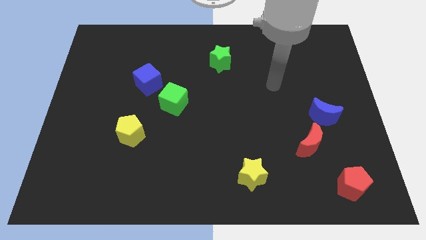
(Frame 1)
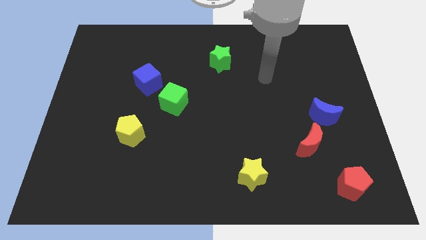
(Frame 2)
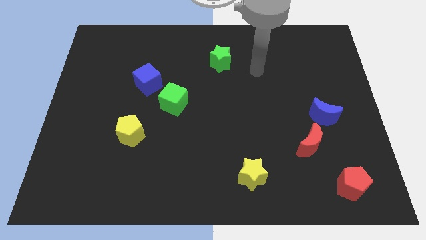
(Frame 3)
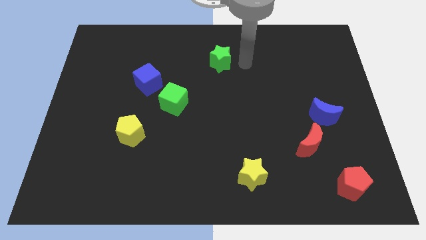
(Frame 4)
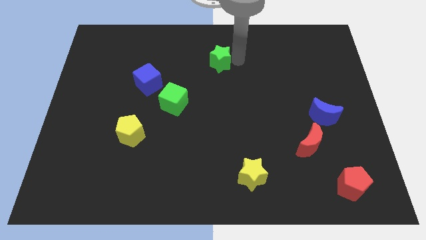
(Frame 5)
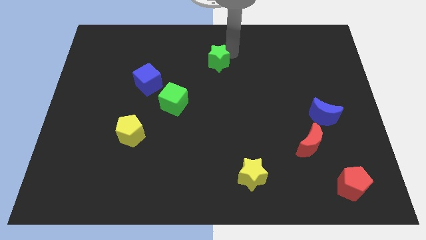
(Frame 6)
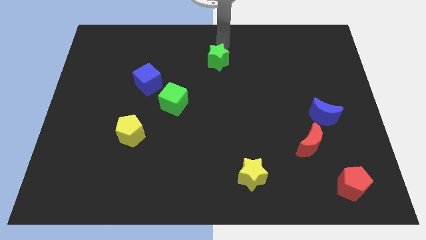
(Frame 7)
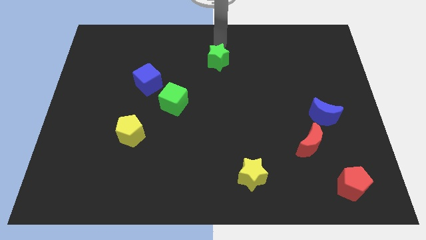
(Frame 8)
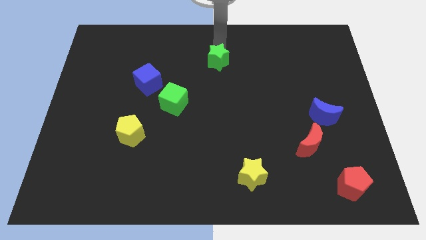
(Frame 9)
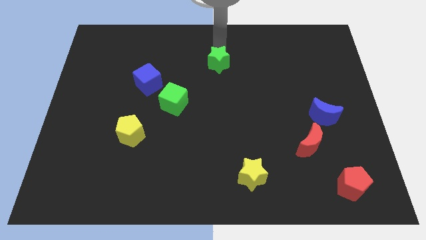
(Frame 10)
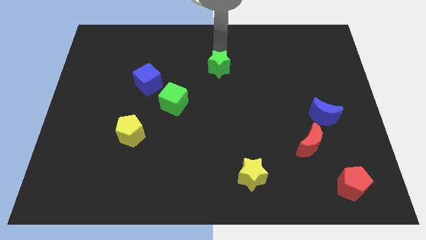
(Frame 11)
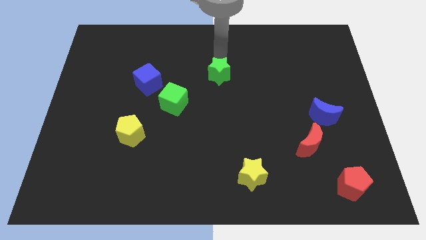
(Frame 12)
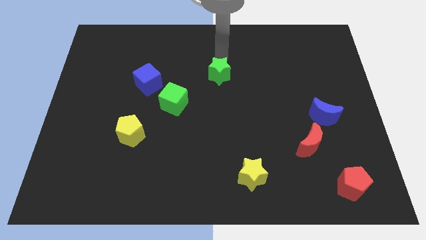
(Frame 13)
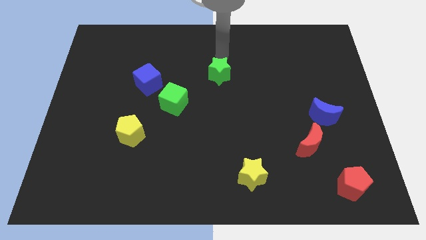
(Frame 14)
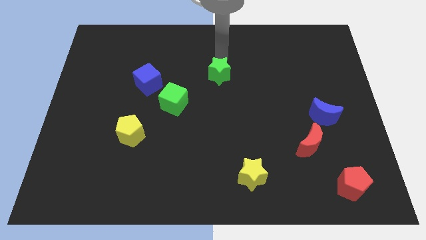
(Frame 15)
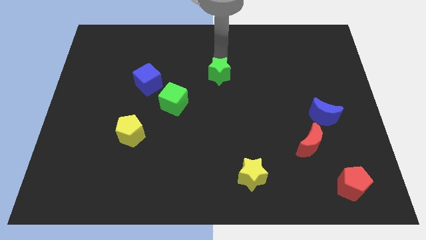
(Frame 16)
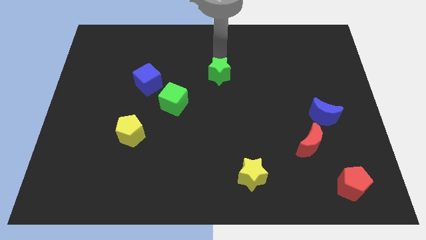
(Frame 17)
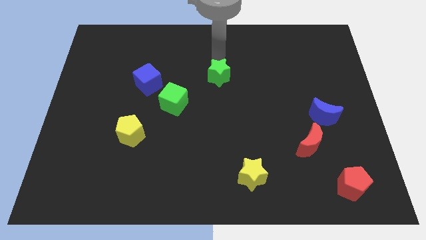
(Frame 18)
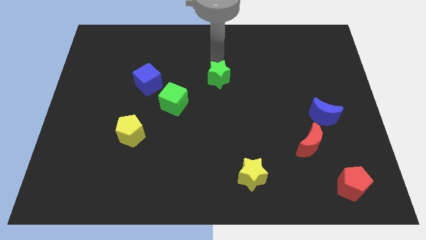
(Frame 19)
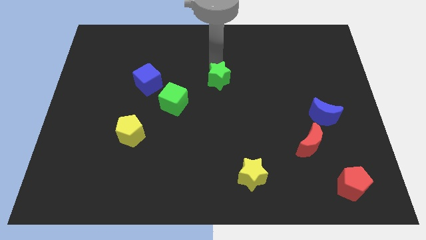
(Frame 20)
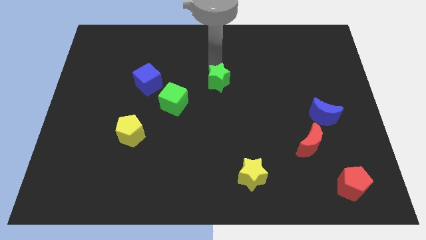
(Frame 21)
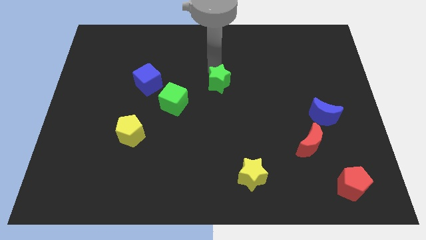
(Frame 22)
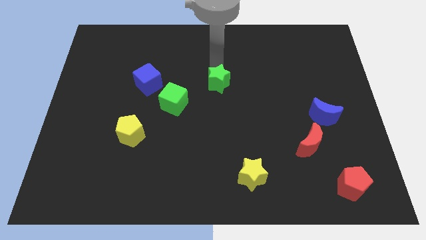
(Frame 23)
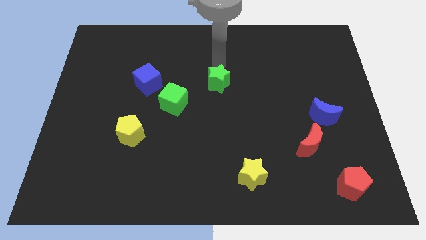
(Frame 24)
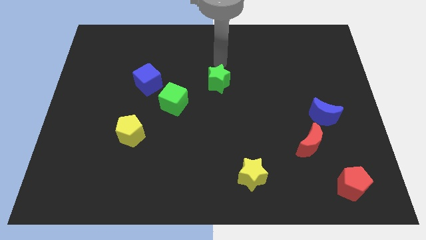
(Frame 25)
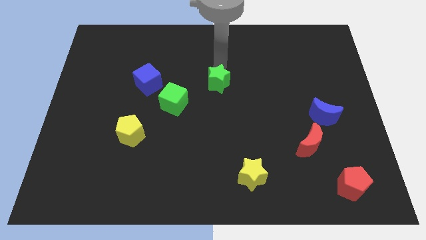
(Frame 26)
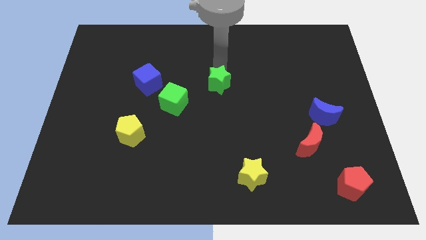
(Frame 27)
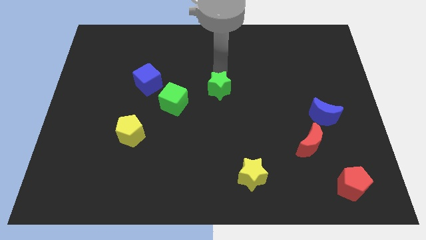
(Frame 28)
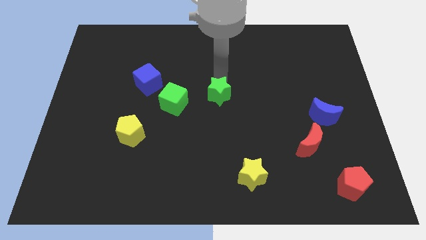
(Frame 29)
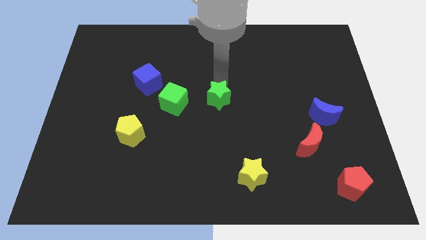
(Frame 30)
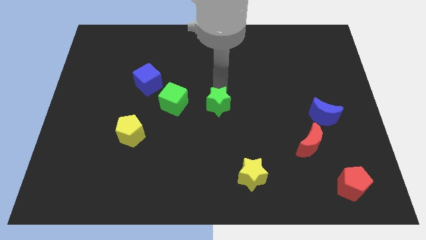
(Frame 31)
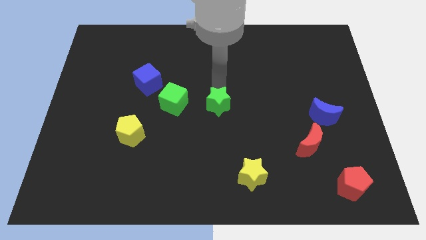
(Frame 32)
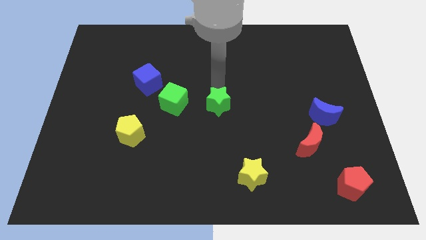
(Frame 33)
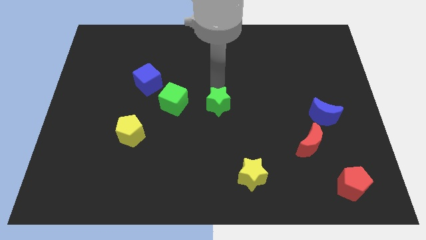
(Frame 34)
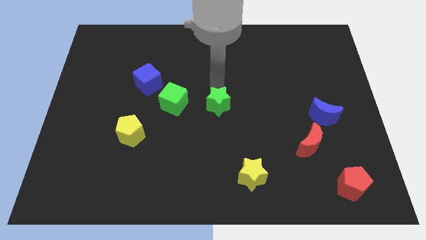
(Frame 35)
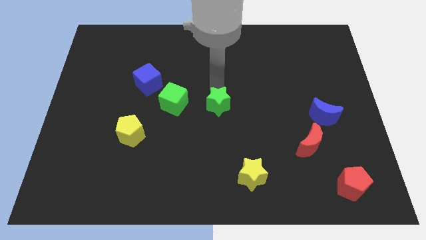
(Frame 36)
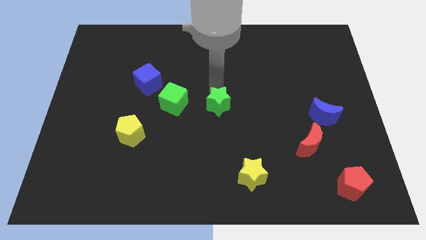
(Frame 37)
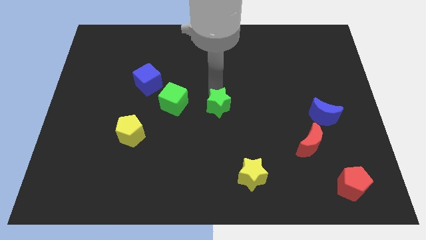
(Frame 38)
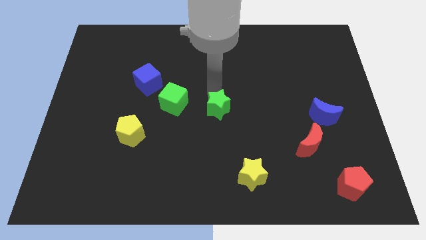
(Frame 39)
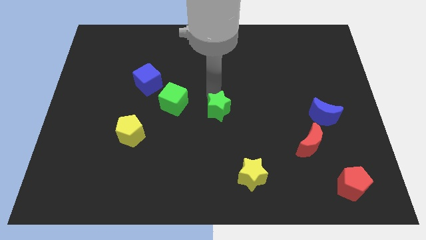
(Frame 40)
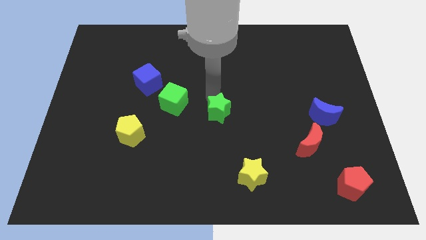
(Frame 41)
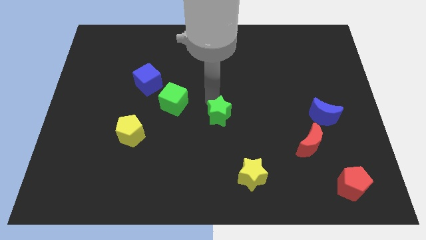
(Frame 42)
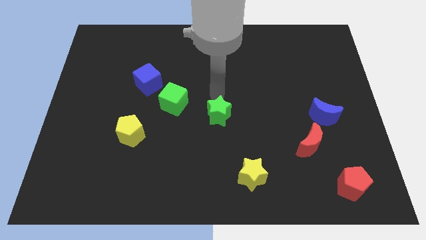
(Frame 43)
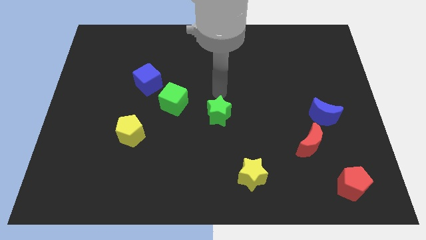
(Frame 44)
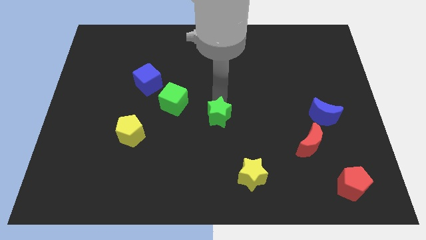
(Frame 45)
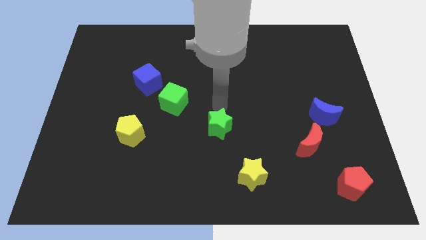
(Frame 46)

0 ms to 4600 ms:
move the green star down

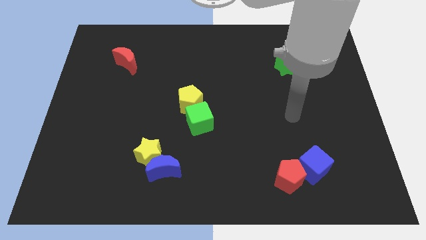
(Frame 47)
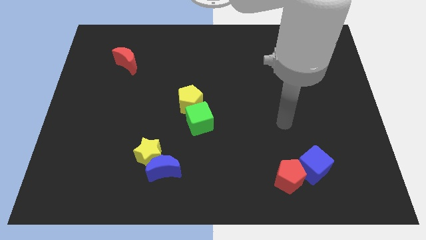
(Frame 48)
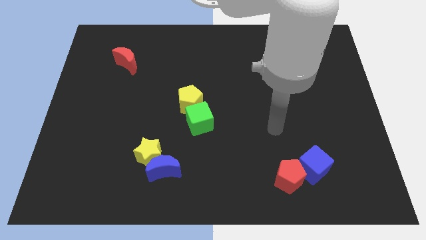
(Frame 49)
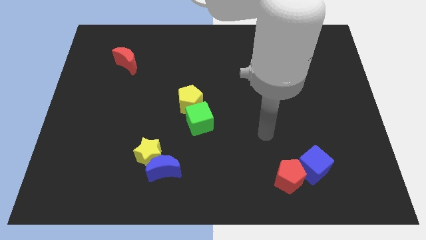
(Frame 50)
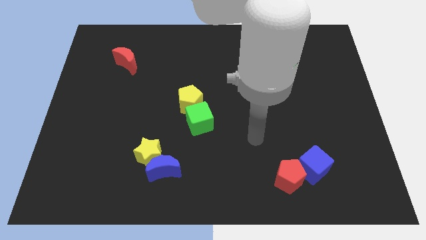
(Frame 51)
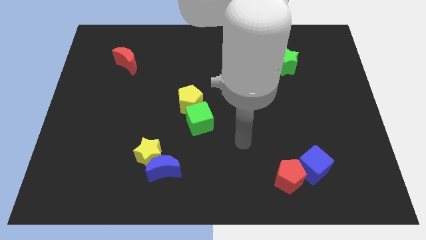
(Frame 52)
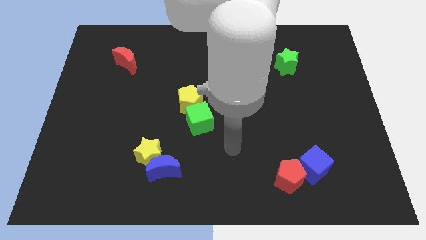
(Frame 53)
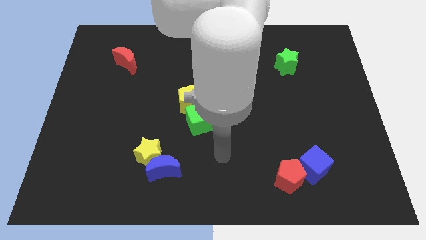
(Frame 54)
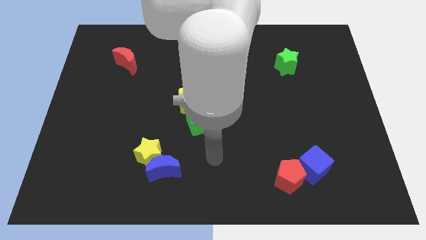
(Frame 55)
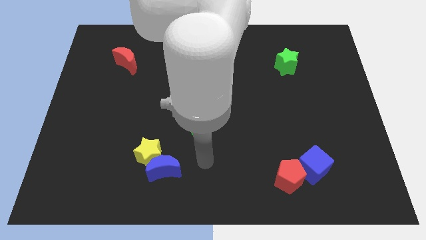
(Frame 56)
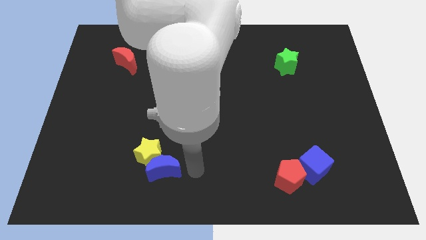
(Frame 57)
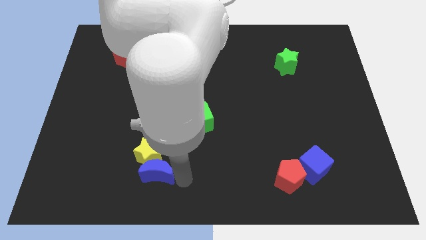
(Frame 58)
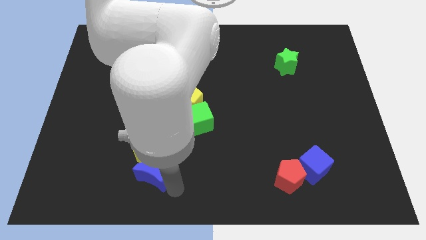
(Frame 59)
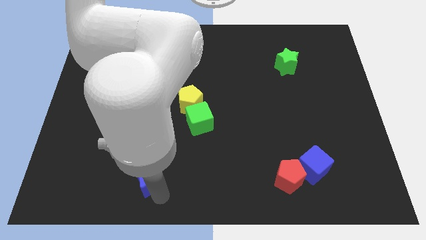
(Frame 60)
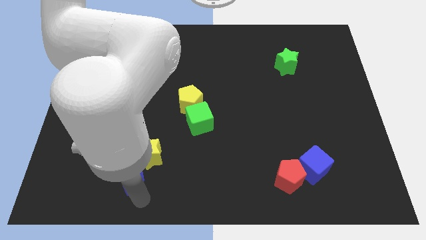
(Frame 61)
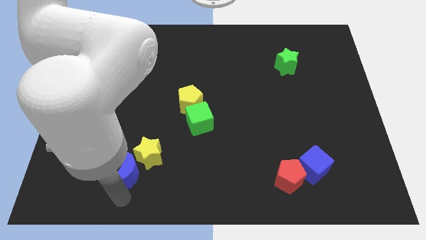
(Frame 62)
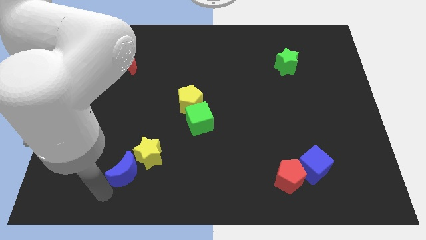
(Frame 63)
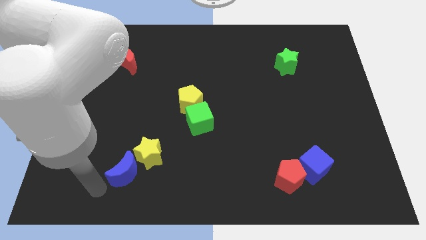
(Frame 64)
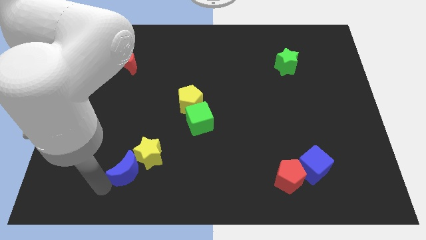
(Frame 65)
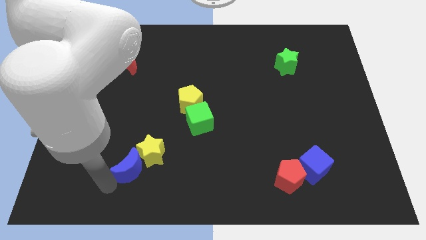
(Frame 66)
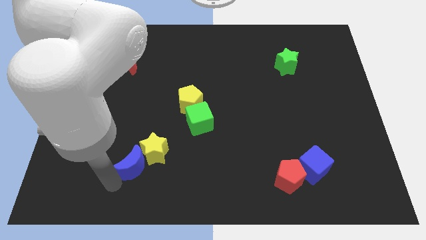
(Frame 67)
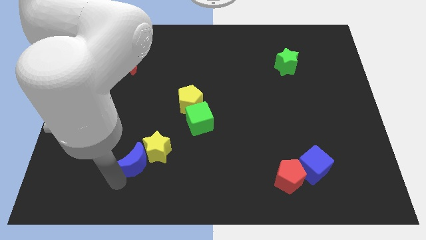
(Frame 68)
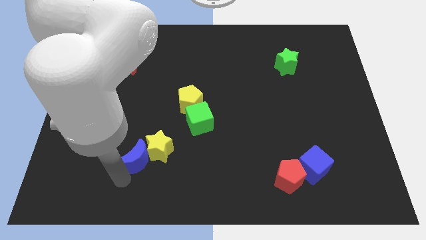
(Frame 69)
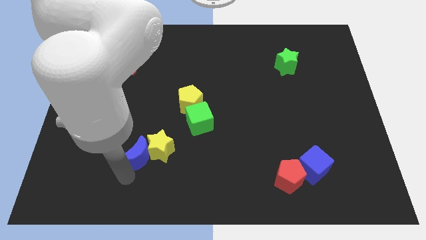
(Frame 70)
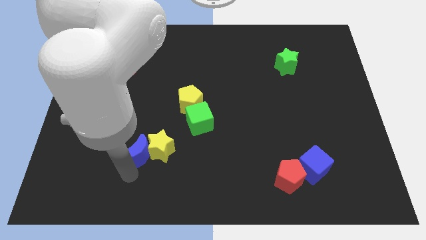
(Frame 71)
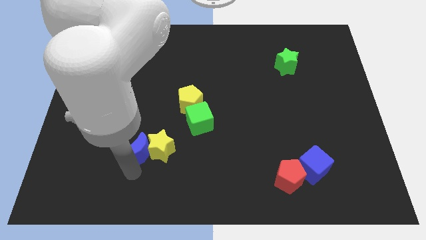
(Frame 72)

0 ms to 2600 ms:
slightly slide the blue moon diagonally upwards and to the left

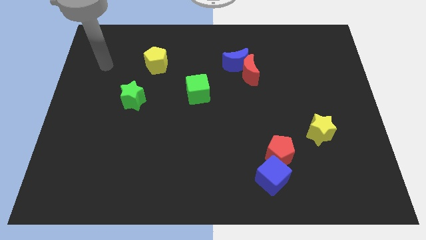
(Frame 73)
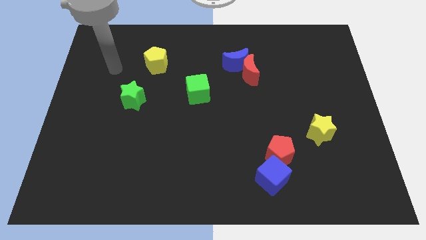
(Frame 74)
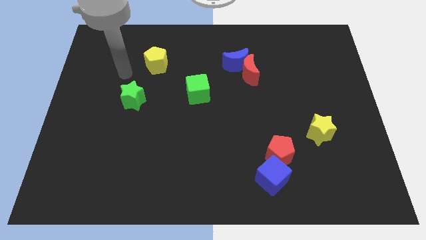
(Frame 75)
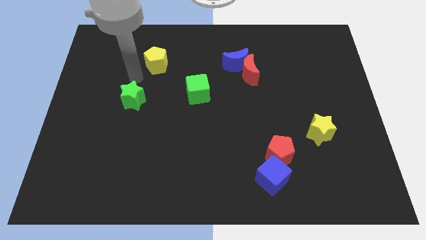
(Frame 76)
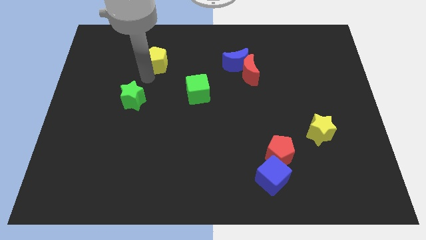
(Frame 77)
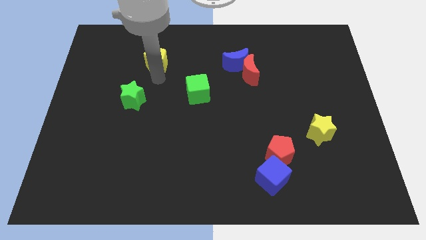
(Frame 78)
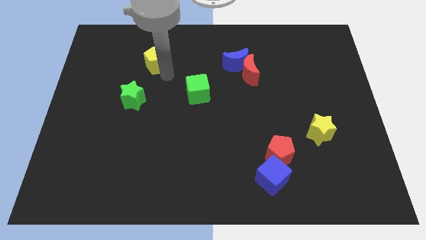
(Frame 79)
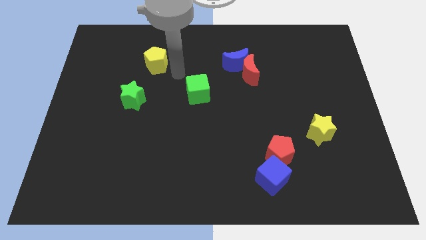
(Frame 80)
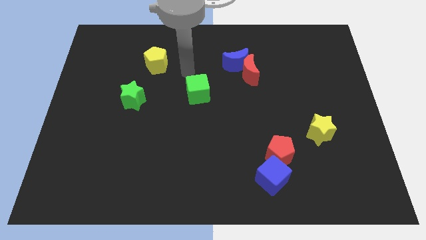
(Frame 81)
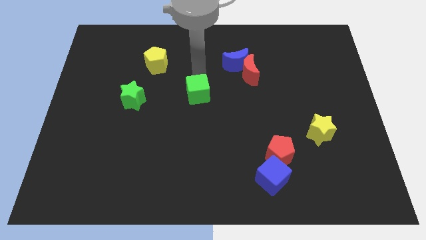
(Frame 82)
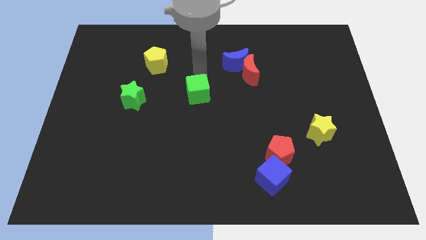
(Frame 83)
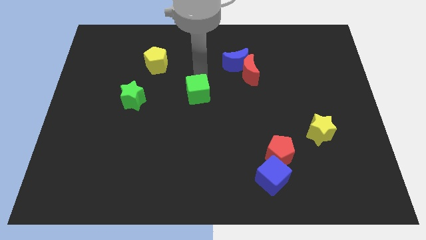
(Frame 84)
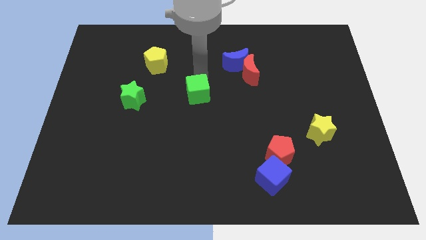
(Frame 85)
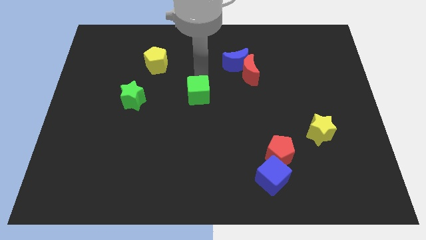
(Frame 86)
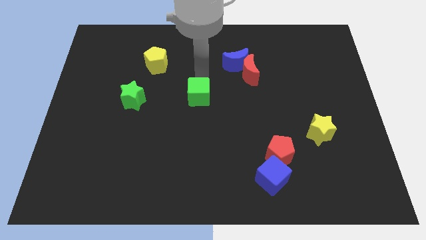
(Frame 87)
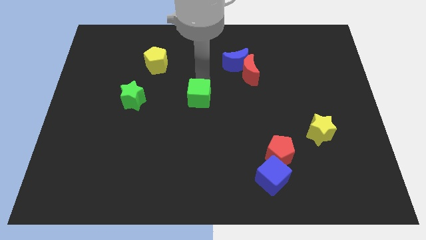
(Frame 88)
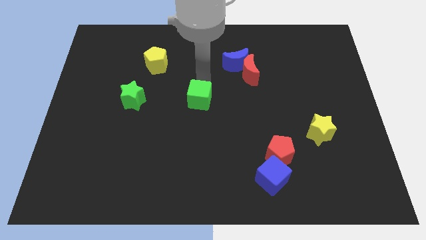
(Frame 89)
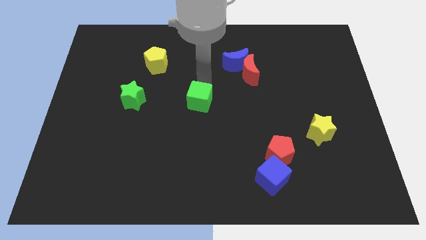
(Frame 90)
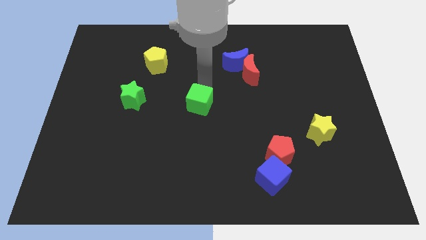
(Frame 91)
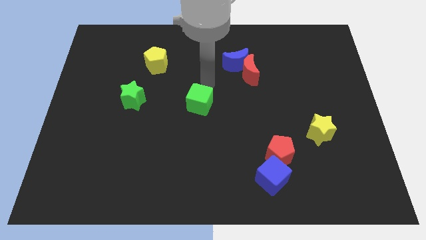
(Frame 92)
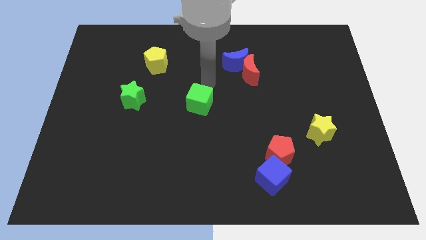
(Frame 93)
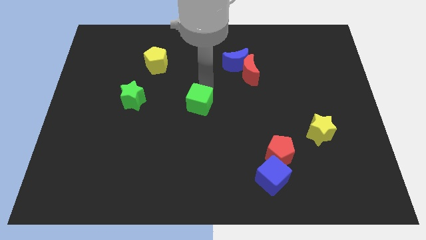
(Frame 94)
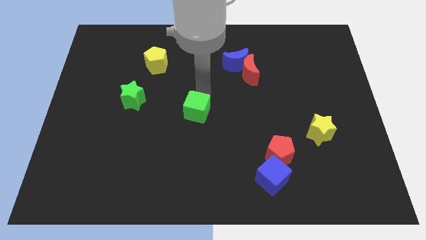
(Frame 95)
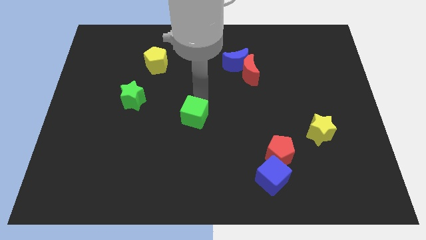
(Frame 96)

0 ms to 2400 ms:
move the green cube slightly downwards
